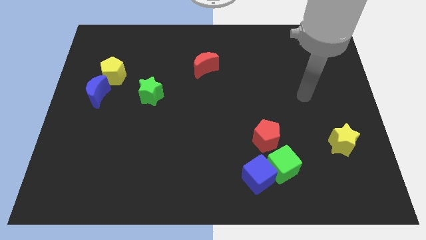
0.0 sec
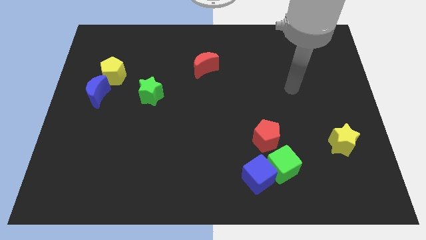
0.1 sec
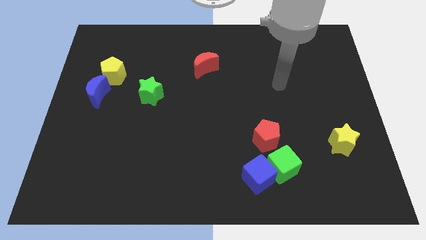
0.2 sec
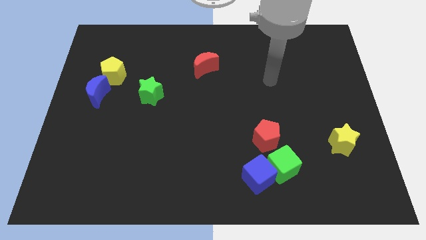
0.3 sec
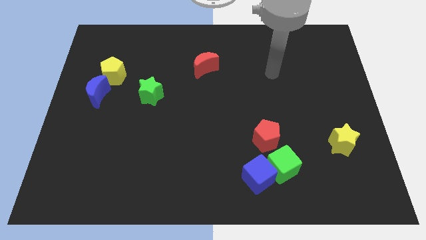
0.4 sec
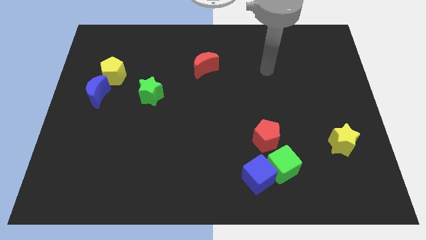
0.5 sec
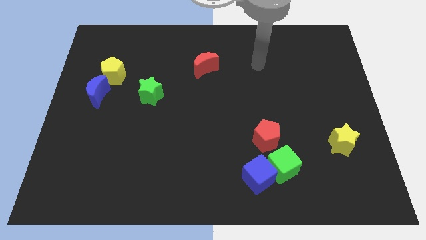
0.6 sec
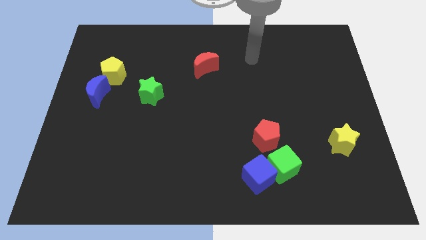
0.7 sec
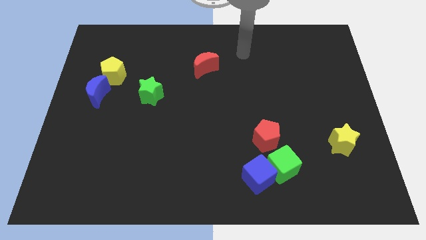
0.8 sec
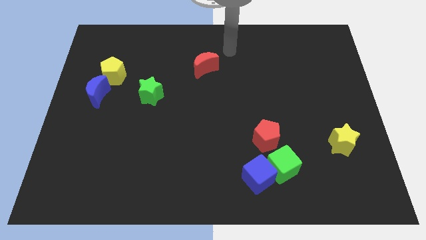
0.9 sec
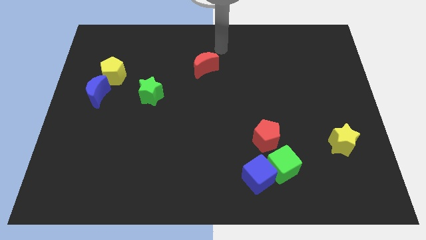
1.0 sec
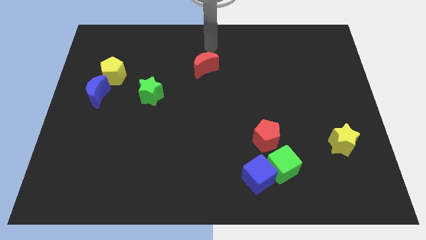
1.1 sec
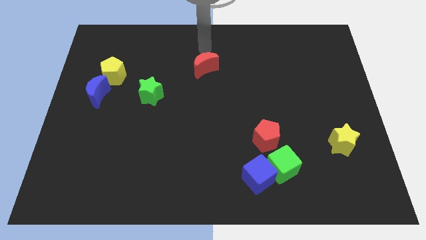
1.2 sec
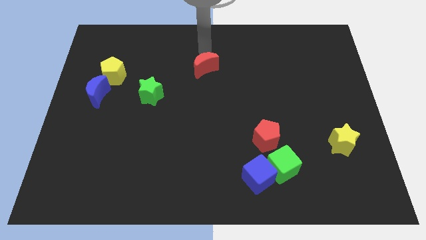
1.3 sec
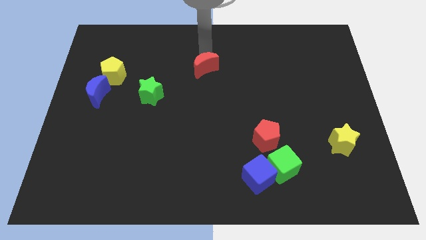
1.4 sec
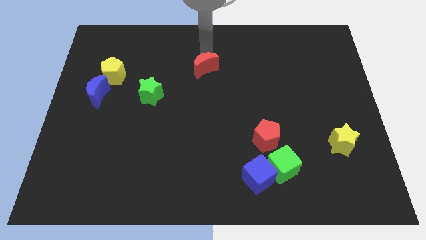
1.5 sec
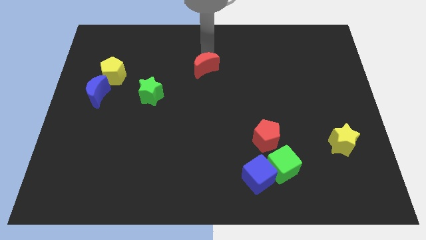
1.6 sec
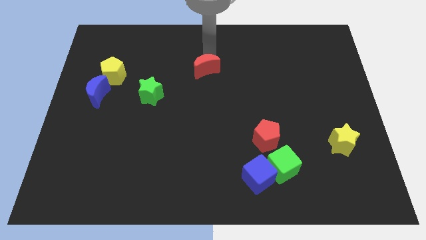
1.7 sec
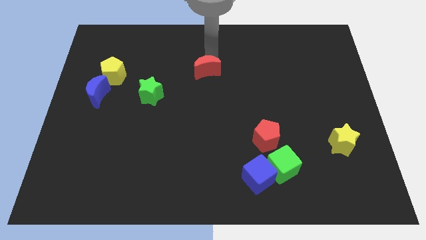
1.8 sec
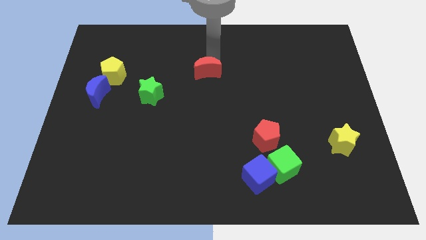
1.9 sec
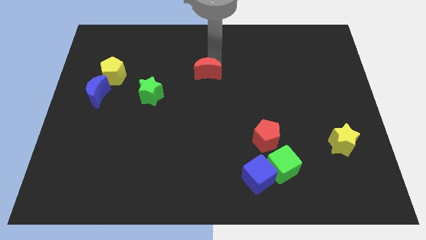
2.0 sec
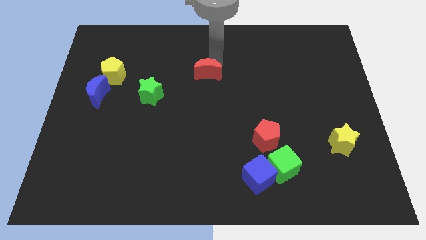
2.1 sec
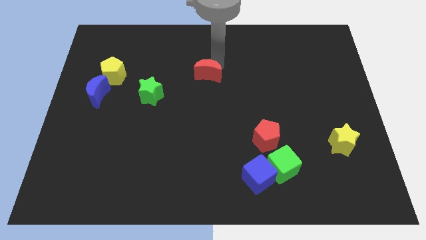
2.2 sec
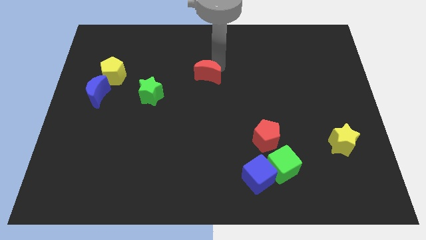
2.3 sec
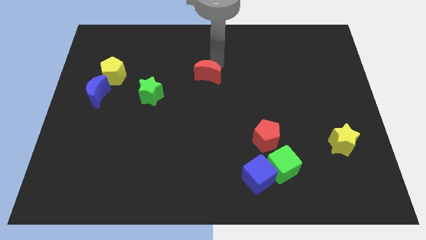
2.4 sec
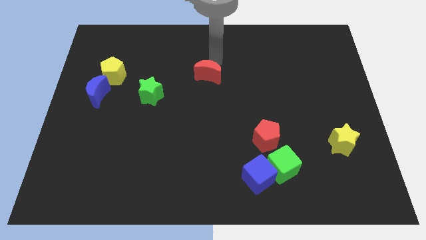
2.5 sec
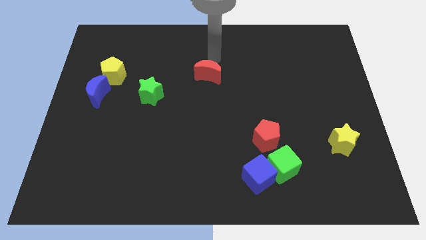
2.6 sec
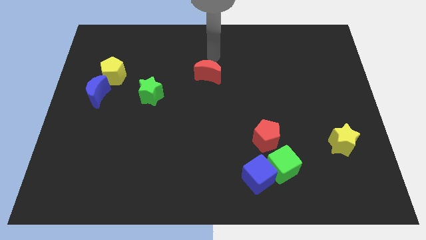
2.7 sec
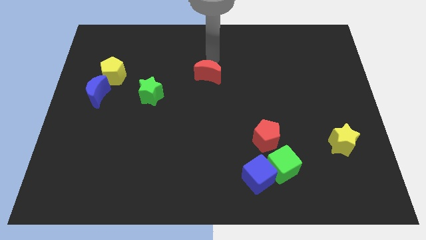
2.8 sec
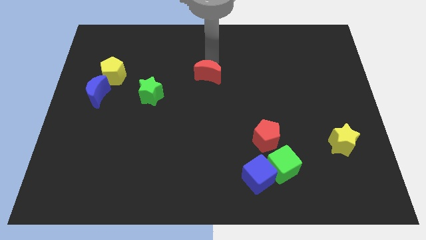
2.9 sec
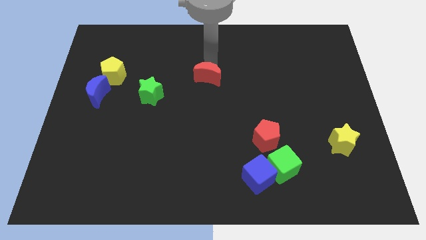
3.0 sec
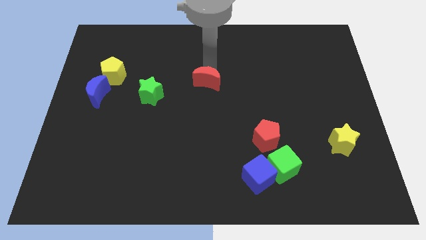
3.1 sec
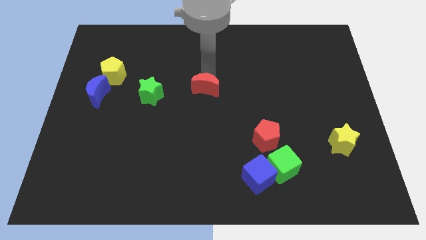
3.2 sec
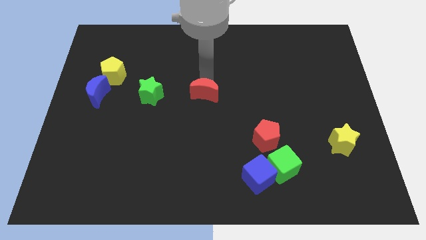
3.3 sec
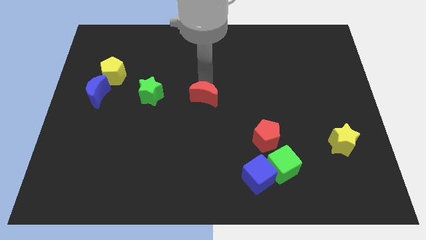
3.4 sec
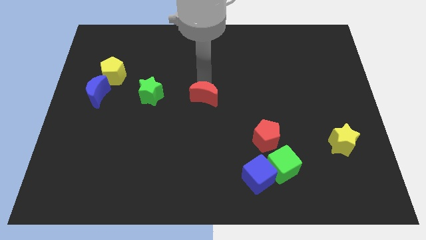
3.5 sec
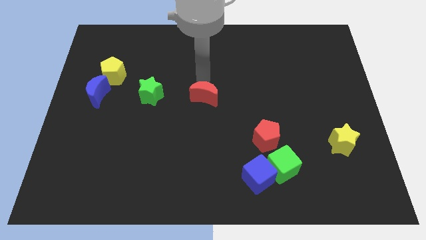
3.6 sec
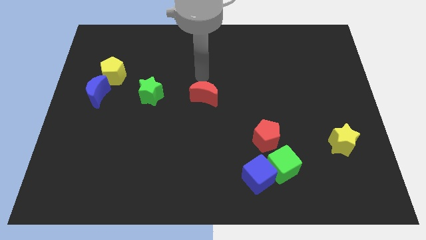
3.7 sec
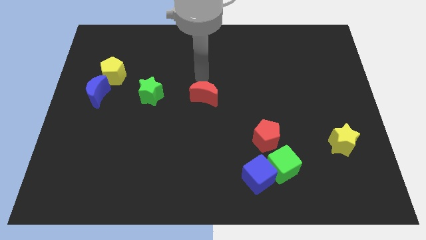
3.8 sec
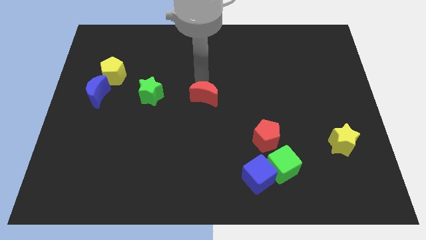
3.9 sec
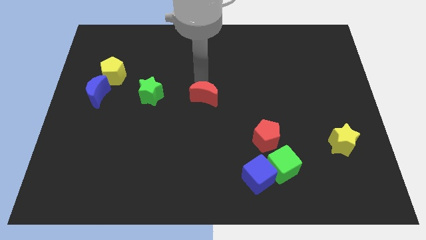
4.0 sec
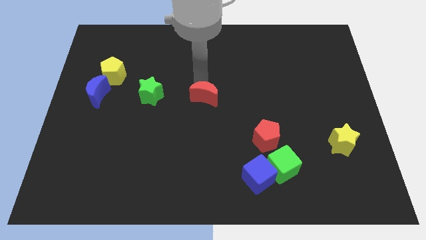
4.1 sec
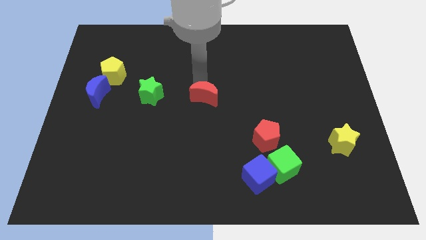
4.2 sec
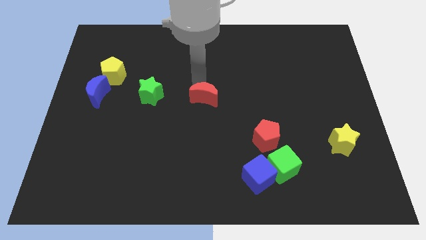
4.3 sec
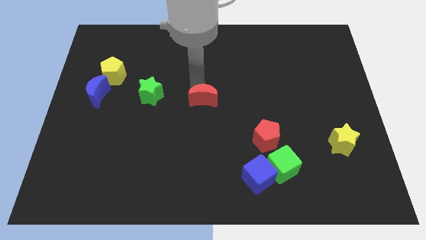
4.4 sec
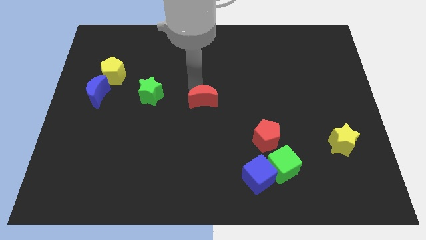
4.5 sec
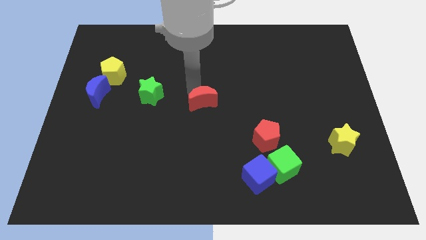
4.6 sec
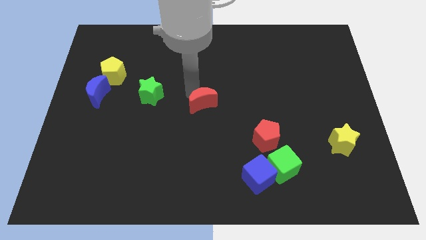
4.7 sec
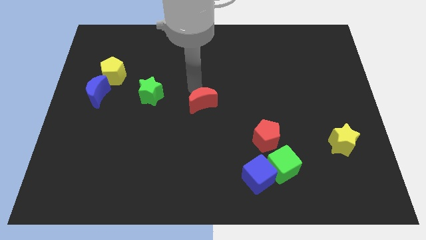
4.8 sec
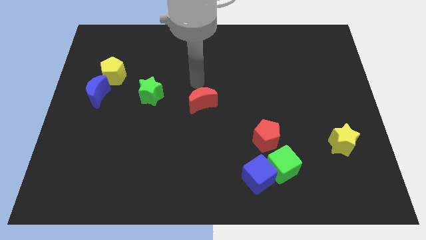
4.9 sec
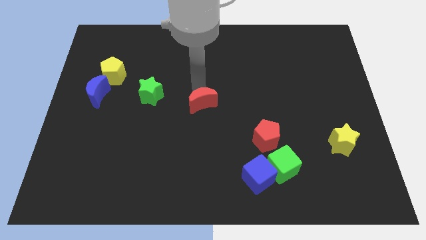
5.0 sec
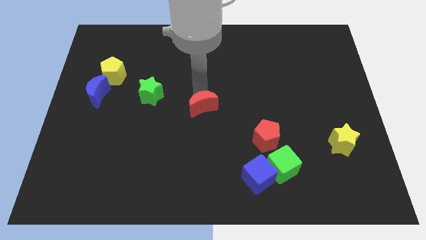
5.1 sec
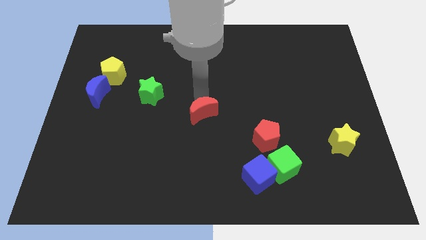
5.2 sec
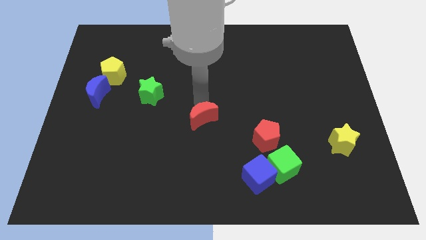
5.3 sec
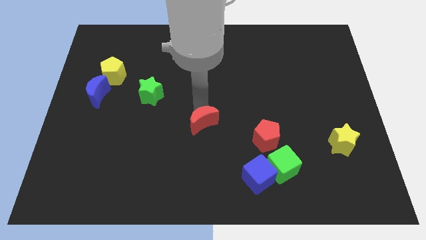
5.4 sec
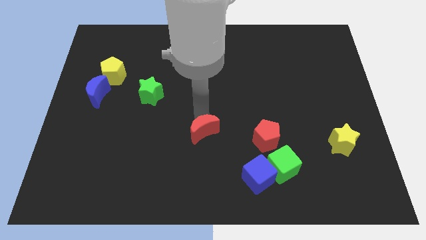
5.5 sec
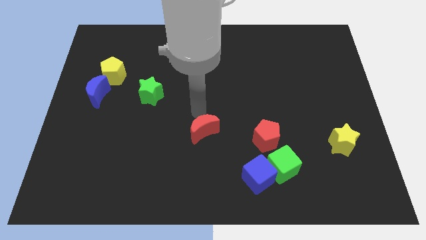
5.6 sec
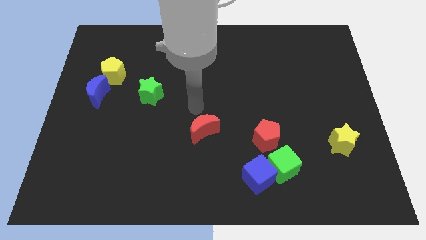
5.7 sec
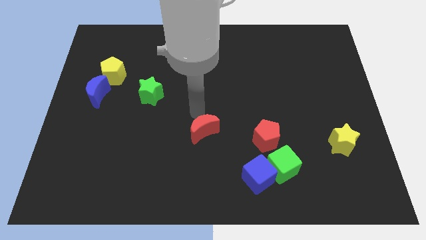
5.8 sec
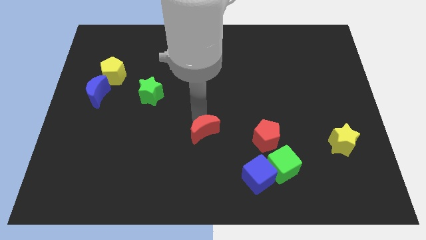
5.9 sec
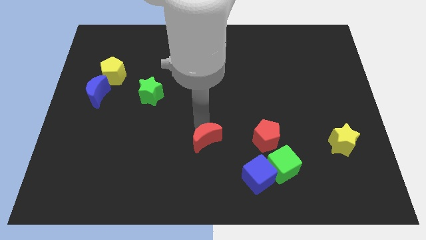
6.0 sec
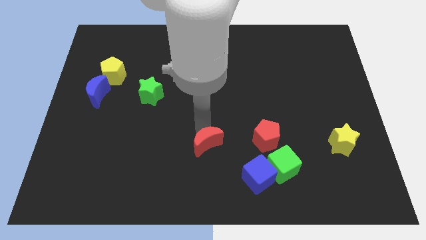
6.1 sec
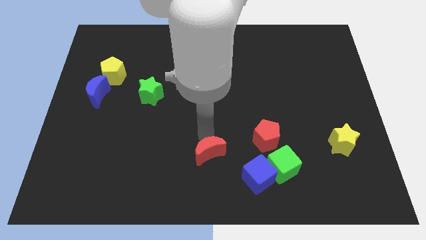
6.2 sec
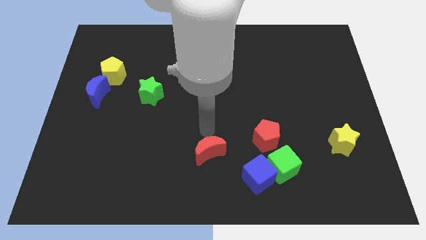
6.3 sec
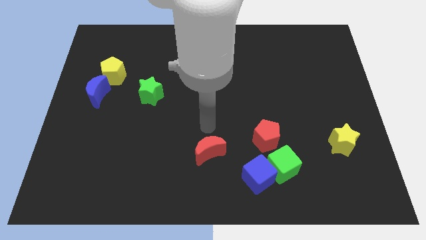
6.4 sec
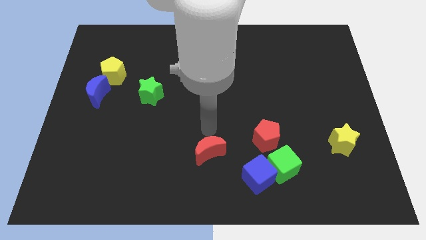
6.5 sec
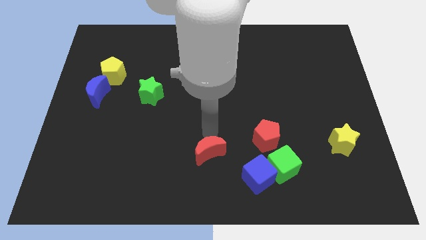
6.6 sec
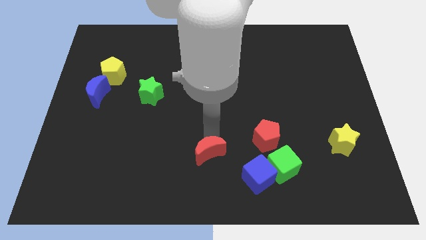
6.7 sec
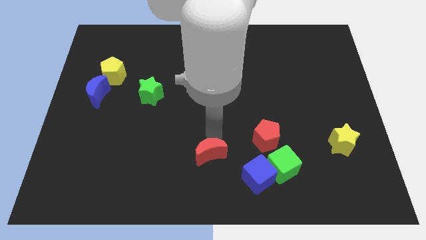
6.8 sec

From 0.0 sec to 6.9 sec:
move the red moon to the bottom side

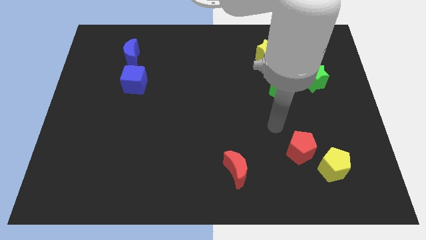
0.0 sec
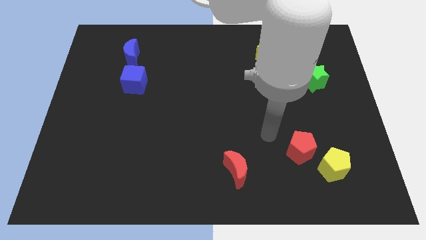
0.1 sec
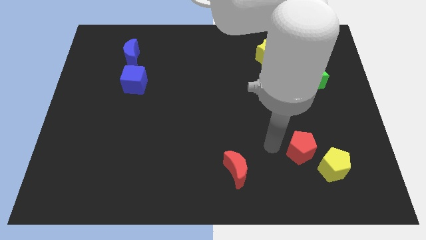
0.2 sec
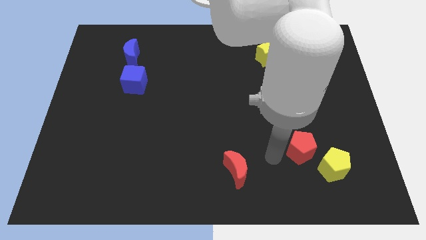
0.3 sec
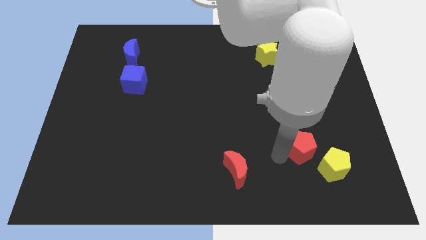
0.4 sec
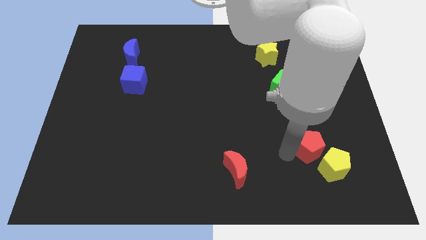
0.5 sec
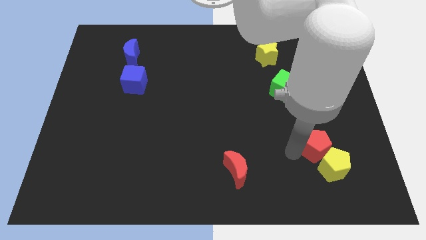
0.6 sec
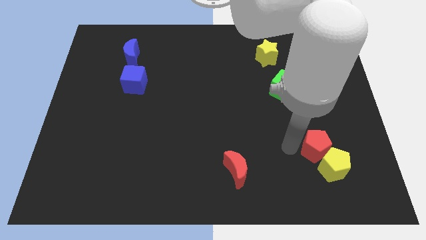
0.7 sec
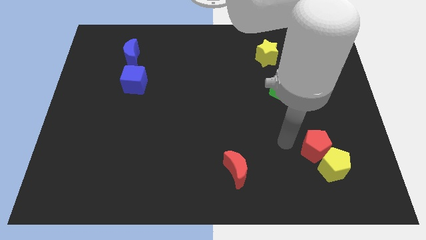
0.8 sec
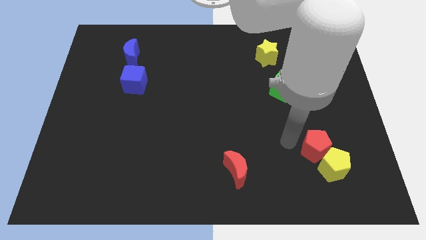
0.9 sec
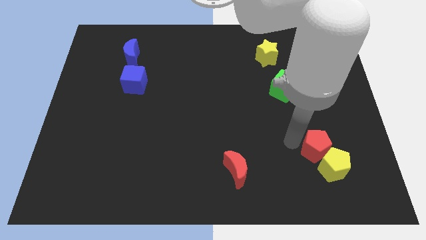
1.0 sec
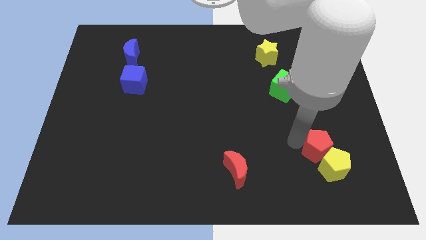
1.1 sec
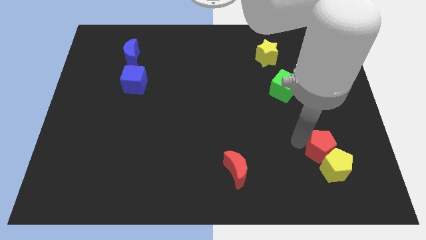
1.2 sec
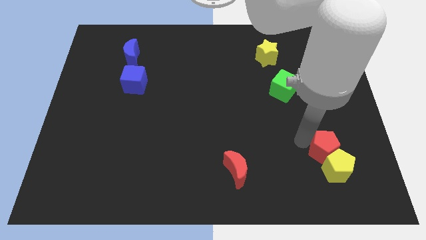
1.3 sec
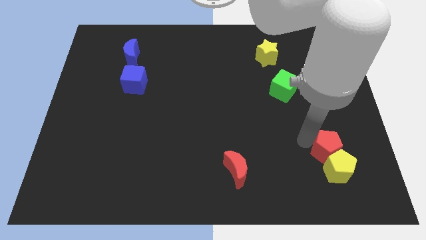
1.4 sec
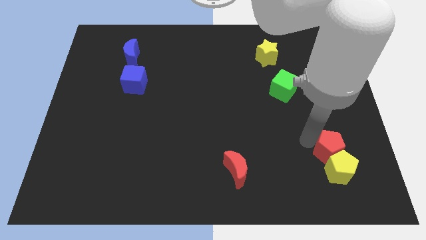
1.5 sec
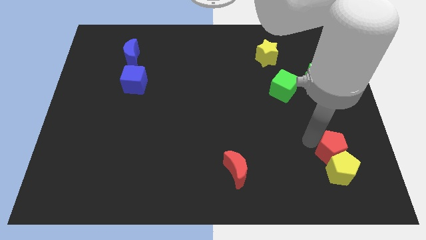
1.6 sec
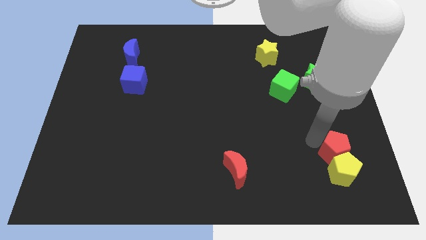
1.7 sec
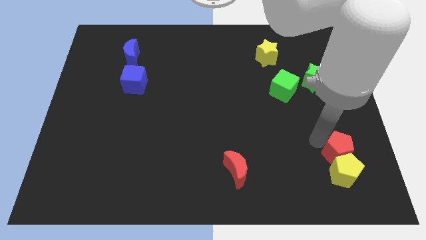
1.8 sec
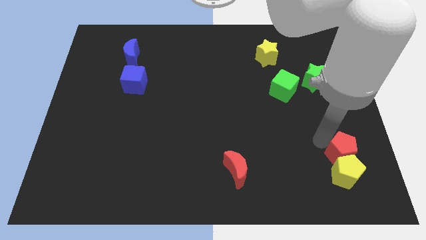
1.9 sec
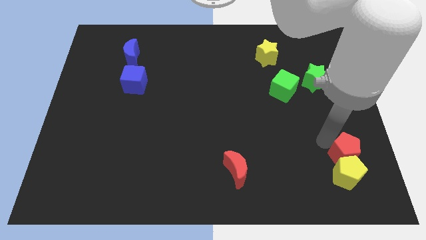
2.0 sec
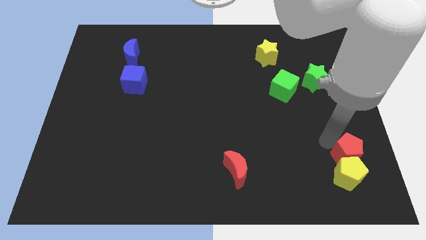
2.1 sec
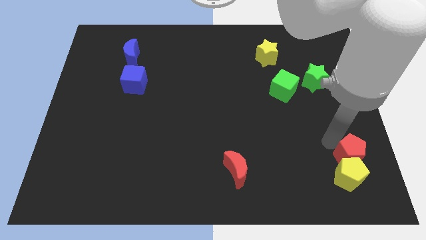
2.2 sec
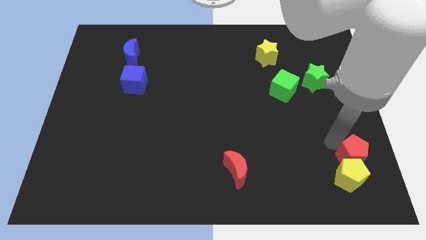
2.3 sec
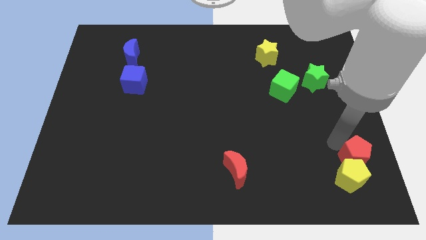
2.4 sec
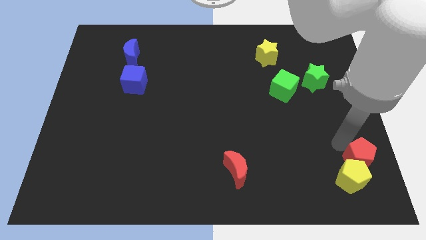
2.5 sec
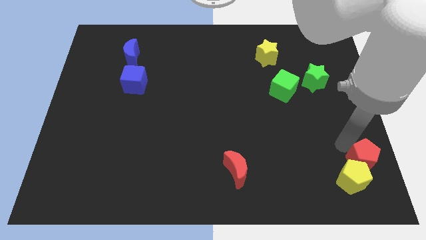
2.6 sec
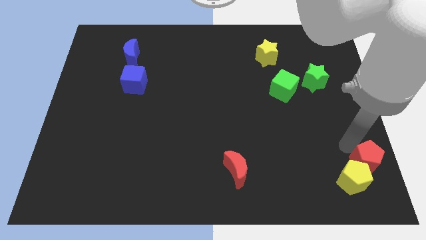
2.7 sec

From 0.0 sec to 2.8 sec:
slide the red pentagon to the bottom right
